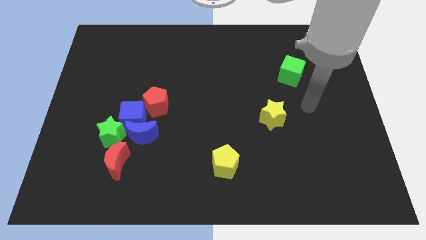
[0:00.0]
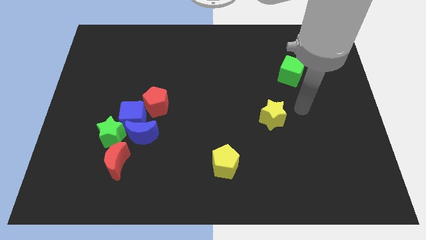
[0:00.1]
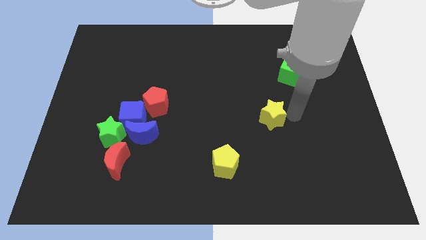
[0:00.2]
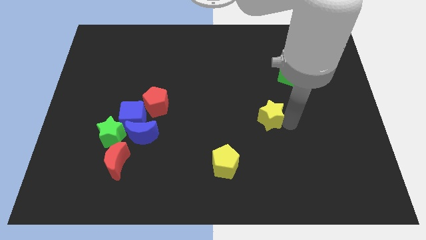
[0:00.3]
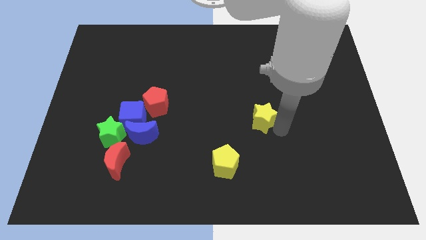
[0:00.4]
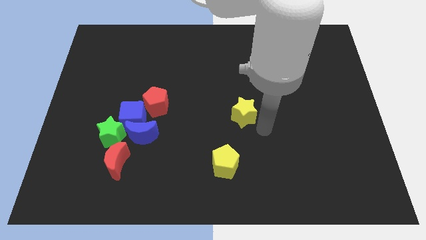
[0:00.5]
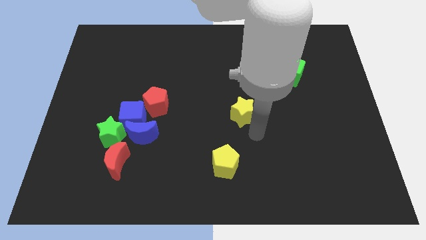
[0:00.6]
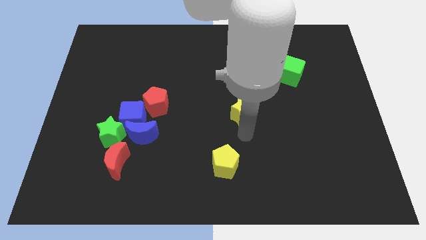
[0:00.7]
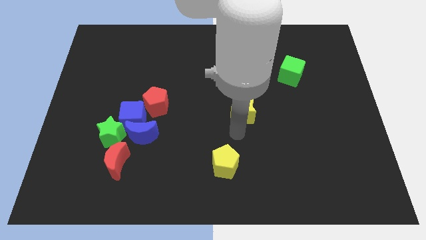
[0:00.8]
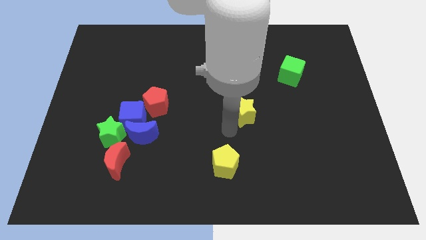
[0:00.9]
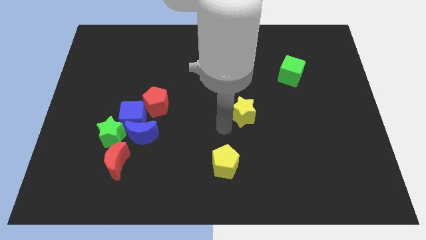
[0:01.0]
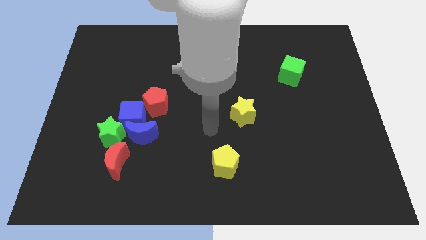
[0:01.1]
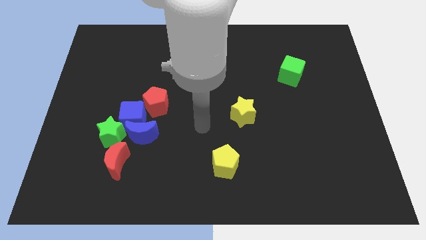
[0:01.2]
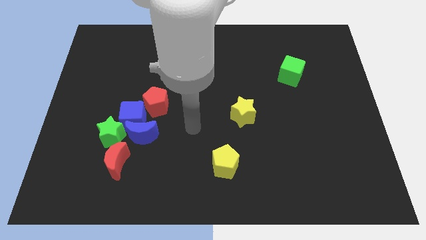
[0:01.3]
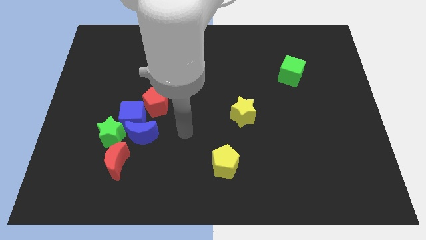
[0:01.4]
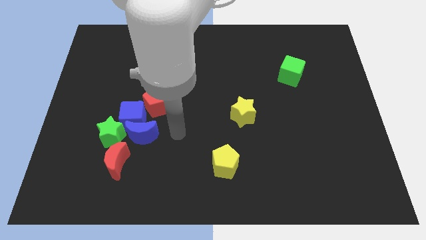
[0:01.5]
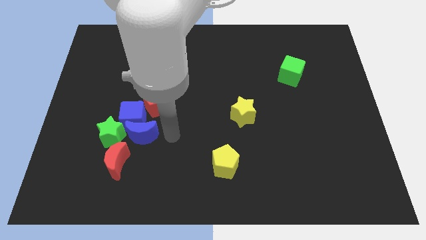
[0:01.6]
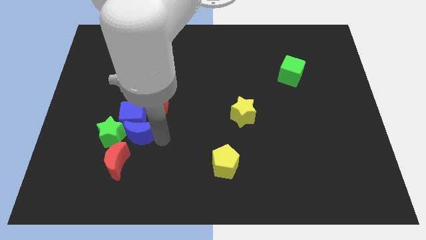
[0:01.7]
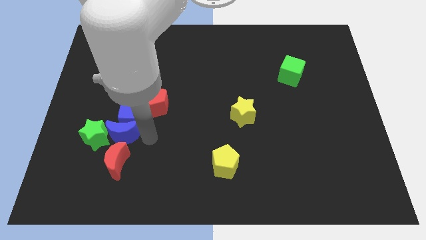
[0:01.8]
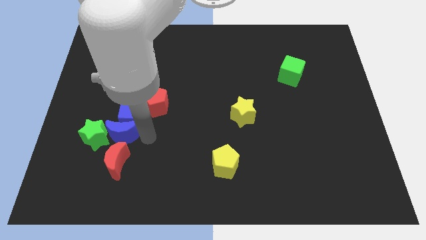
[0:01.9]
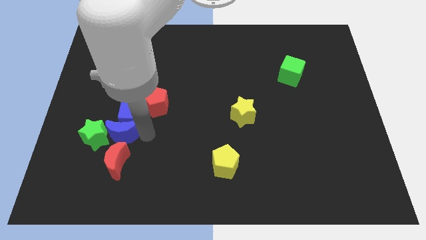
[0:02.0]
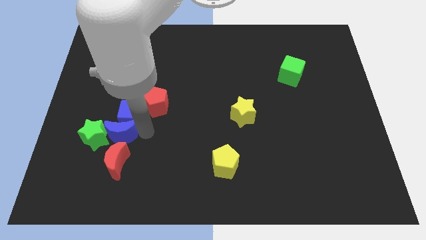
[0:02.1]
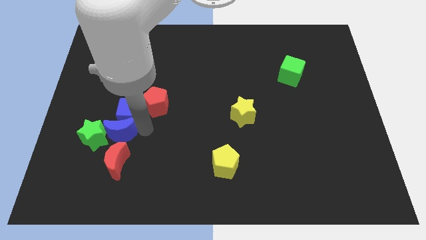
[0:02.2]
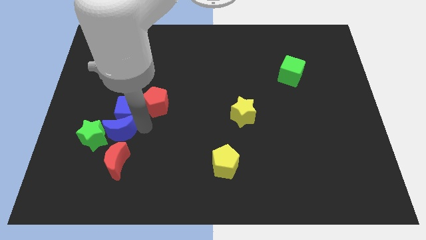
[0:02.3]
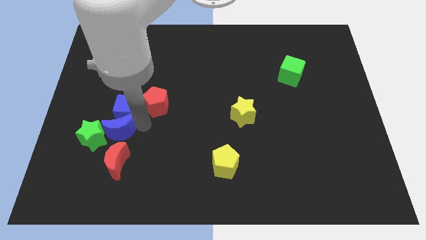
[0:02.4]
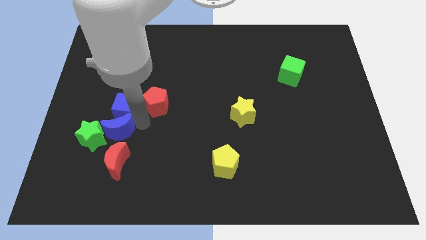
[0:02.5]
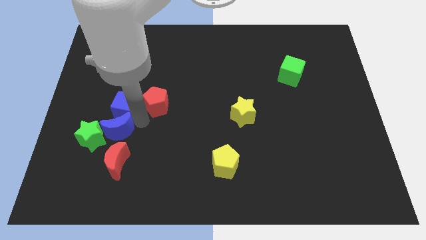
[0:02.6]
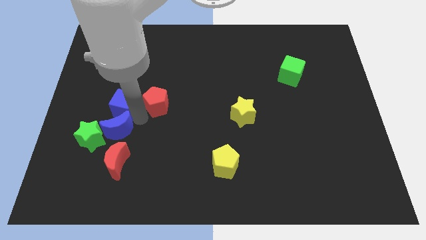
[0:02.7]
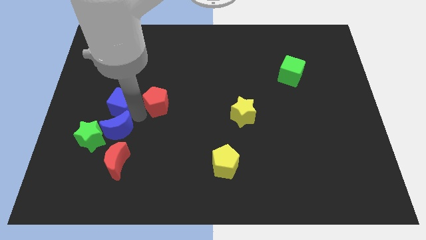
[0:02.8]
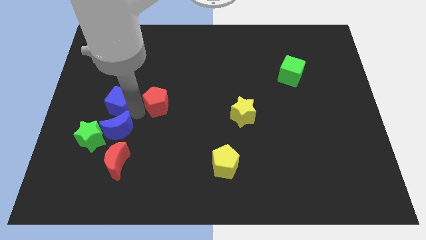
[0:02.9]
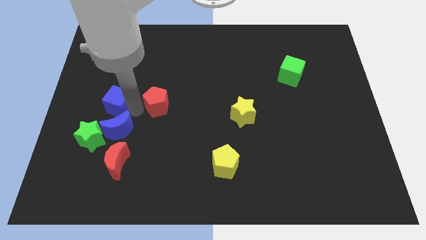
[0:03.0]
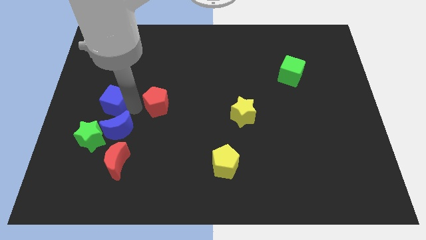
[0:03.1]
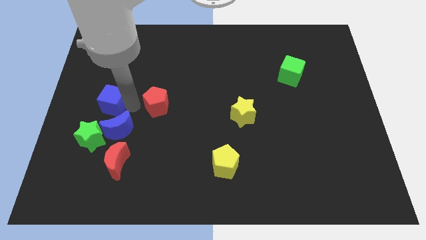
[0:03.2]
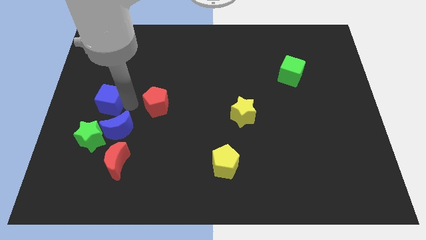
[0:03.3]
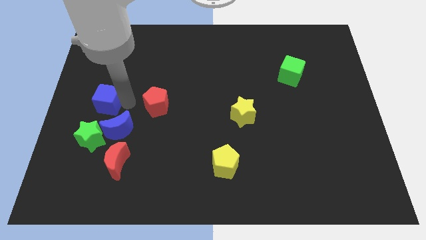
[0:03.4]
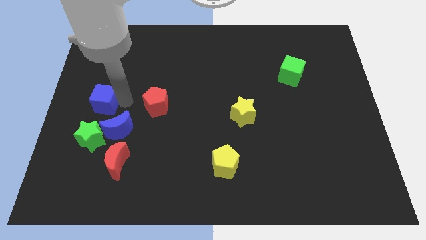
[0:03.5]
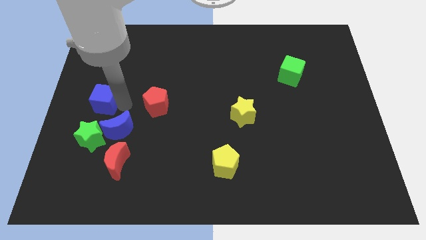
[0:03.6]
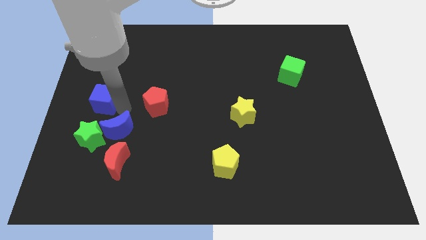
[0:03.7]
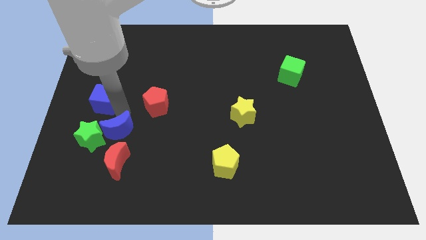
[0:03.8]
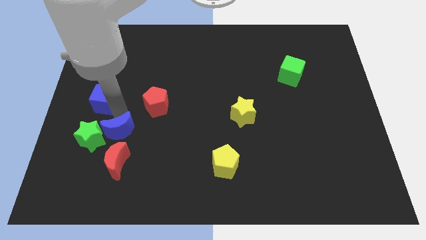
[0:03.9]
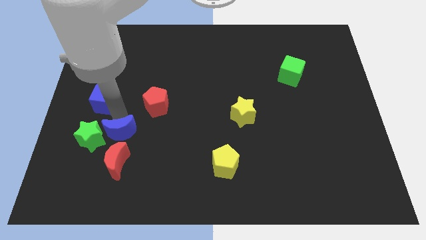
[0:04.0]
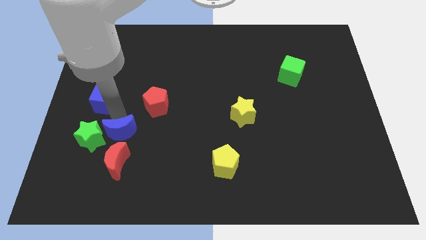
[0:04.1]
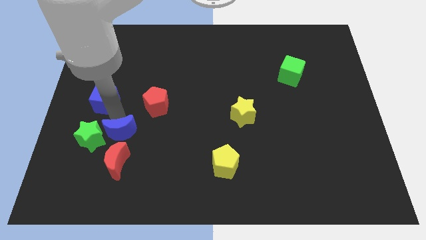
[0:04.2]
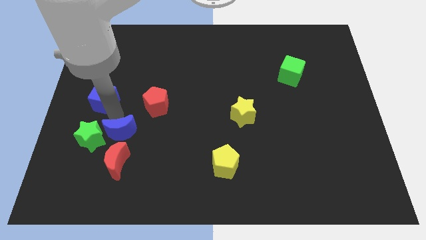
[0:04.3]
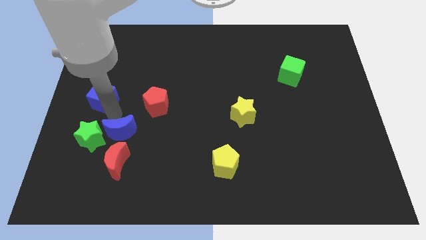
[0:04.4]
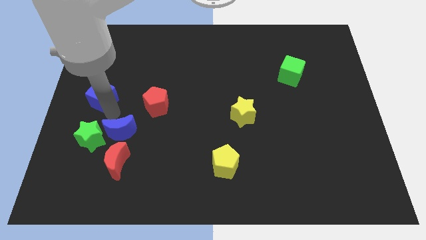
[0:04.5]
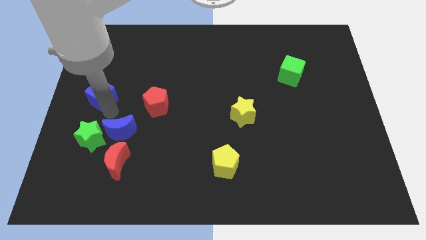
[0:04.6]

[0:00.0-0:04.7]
move the blue cube away from the blue moon, green star, and red pentagon

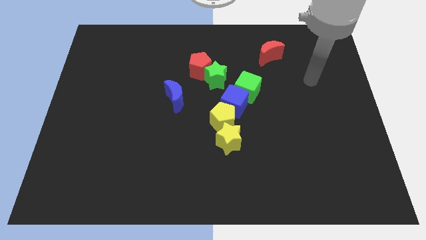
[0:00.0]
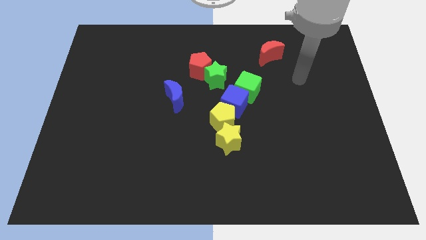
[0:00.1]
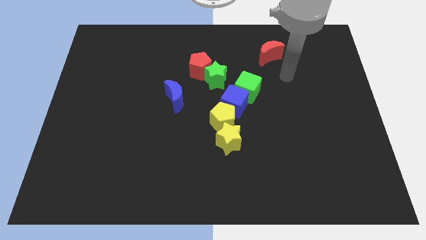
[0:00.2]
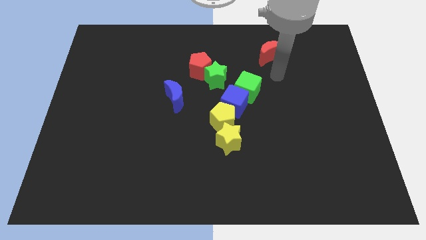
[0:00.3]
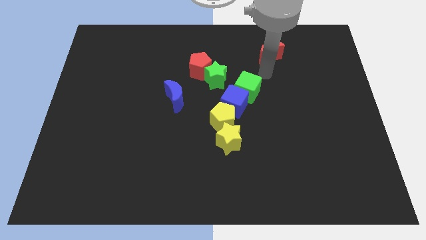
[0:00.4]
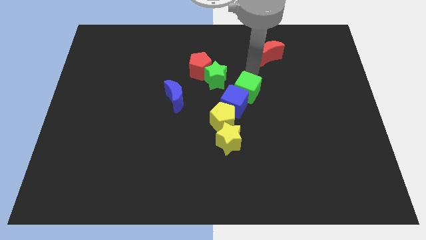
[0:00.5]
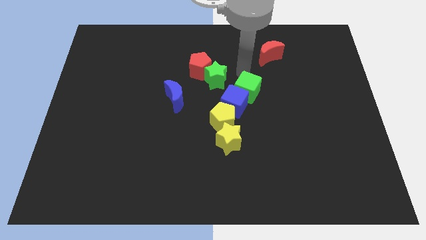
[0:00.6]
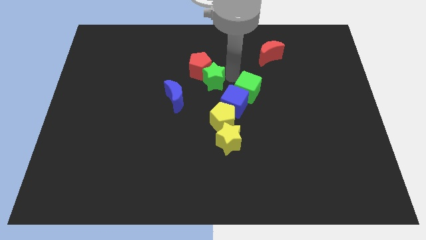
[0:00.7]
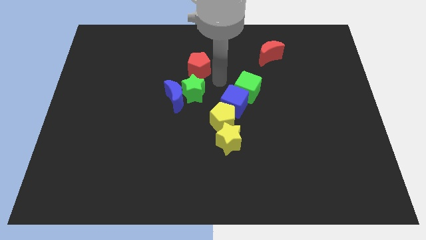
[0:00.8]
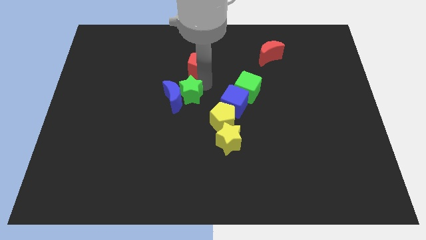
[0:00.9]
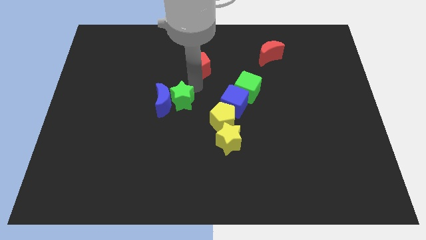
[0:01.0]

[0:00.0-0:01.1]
pull the red pentagon apart from the green star

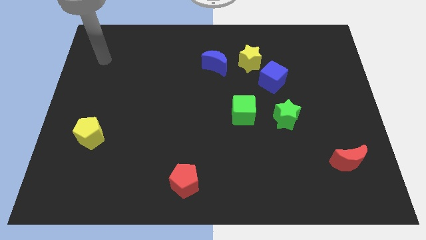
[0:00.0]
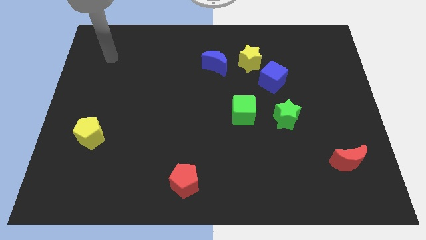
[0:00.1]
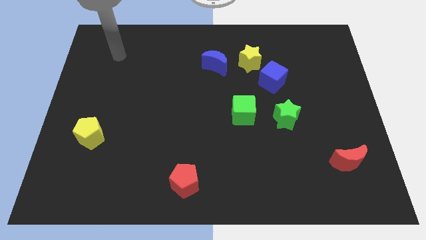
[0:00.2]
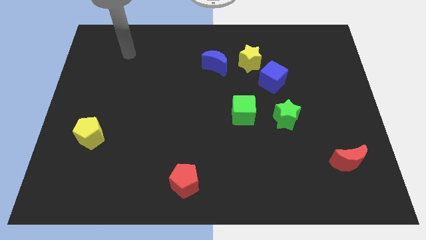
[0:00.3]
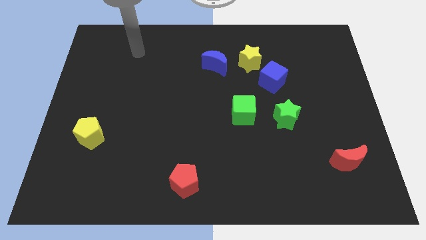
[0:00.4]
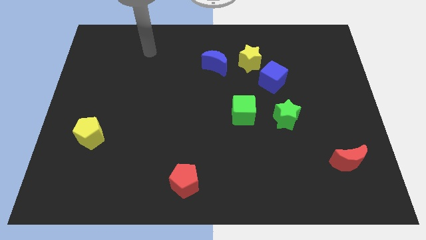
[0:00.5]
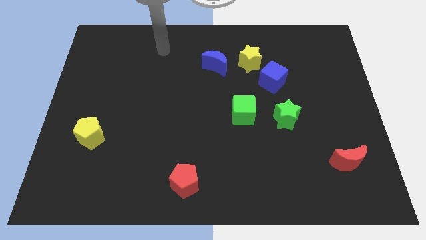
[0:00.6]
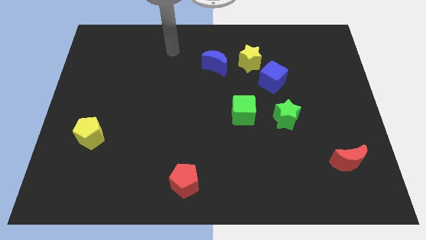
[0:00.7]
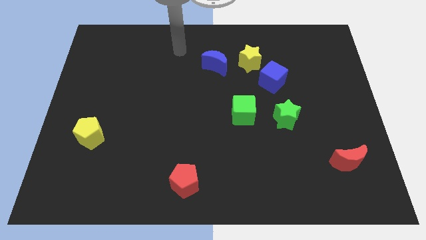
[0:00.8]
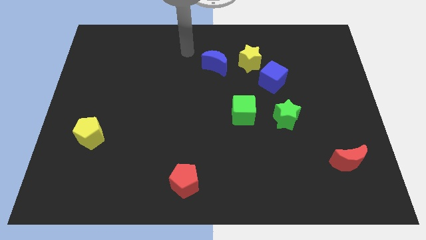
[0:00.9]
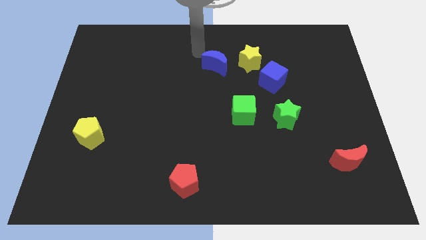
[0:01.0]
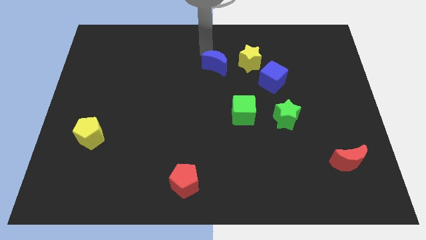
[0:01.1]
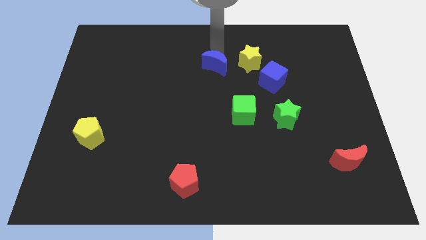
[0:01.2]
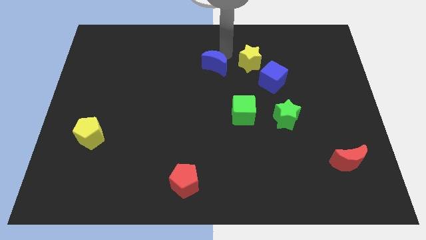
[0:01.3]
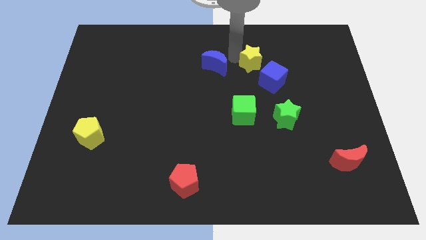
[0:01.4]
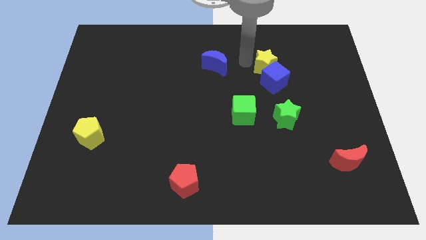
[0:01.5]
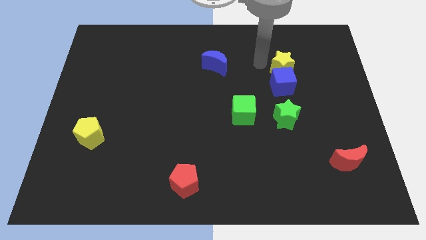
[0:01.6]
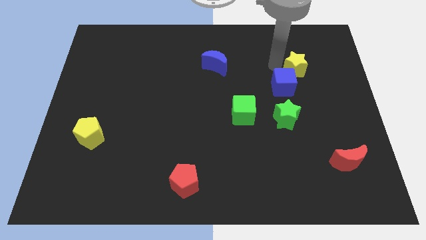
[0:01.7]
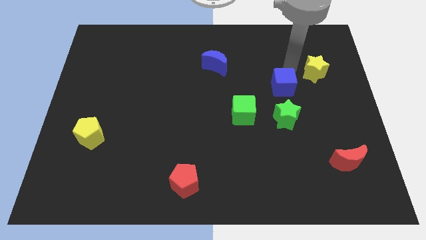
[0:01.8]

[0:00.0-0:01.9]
pull the blue cube apart from the yellow star

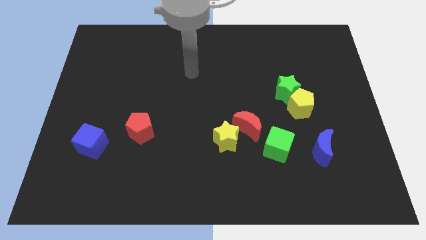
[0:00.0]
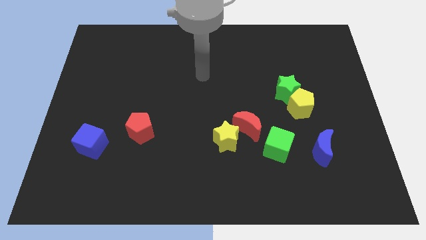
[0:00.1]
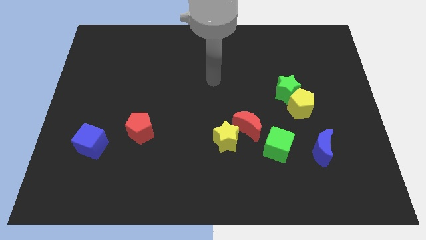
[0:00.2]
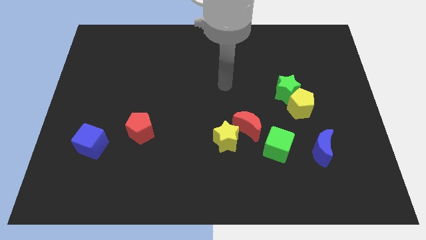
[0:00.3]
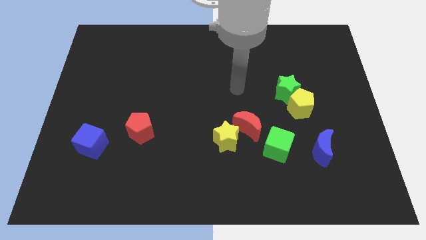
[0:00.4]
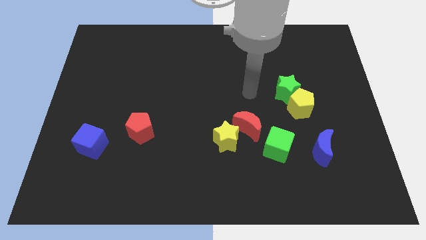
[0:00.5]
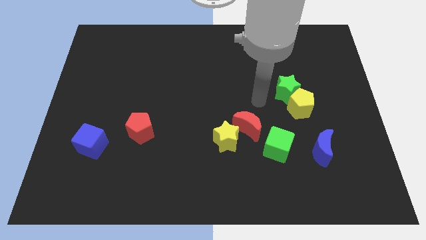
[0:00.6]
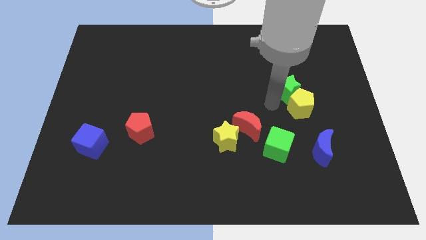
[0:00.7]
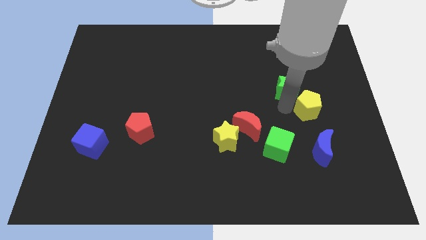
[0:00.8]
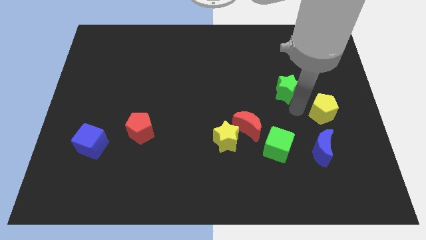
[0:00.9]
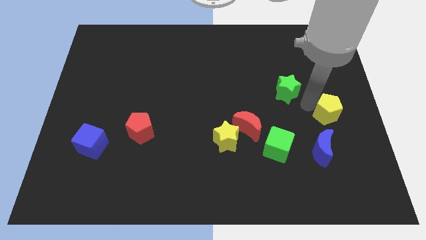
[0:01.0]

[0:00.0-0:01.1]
move the green star away from the yellow pentagon

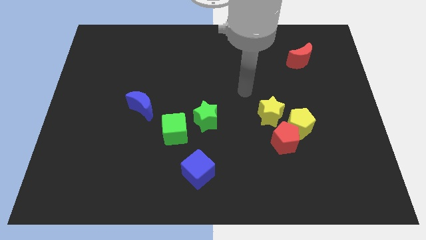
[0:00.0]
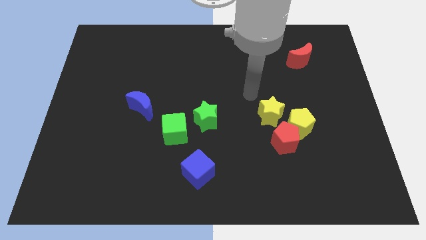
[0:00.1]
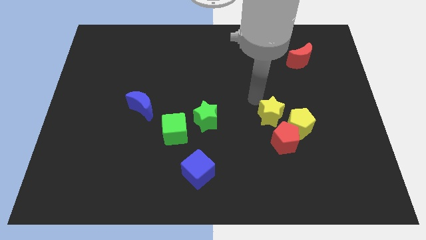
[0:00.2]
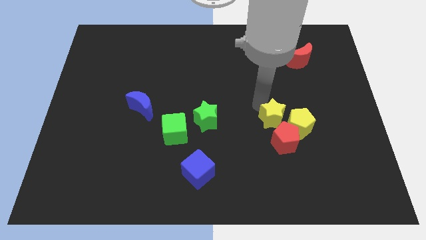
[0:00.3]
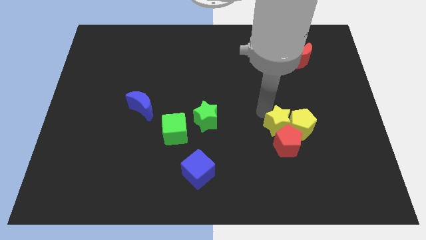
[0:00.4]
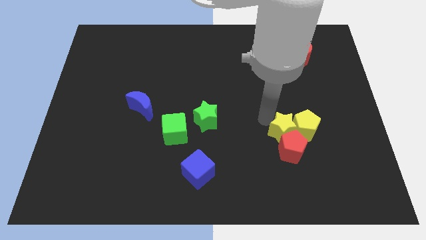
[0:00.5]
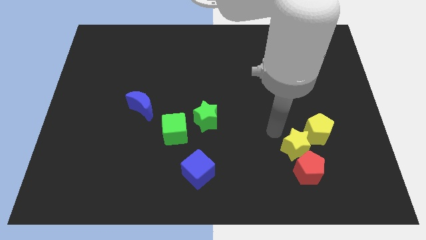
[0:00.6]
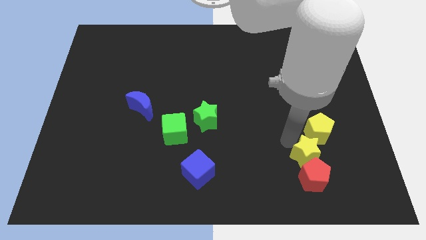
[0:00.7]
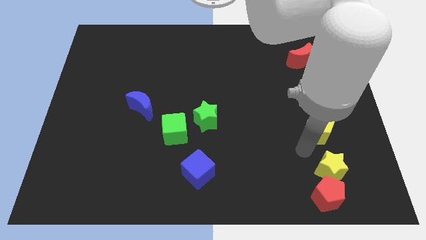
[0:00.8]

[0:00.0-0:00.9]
separate the yellow pentagon from the red pentagon and yellow star
